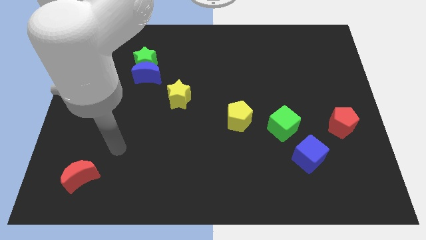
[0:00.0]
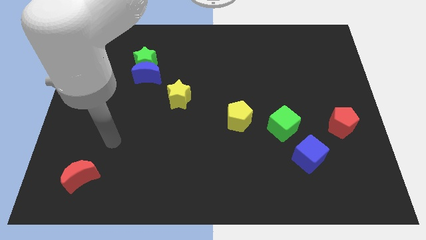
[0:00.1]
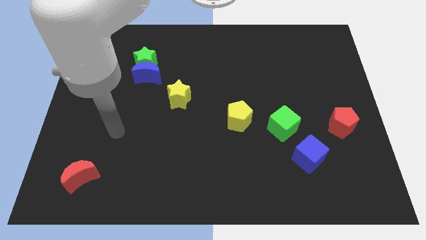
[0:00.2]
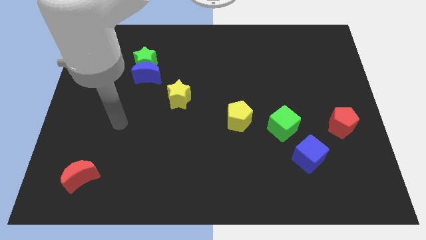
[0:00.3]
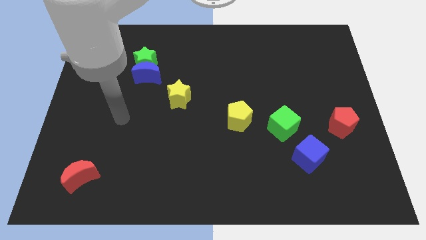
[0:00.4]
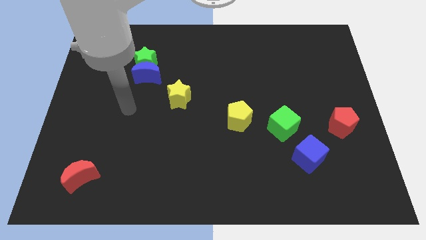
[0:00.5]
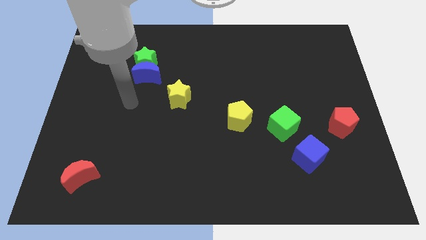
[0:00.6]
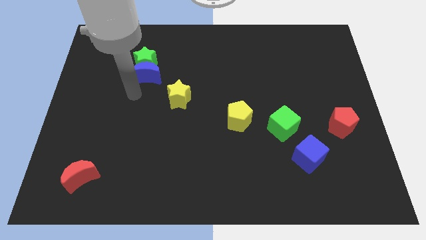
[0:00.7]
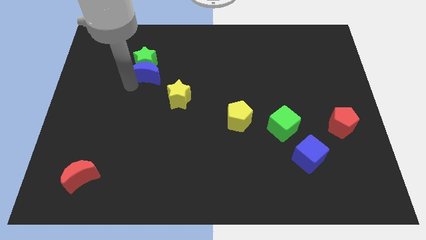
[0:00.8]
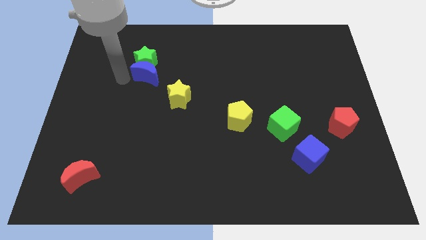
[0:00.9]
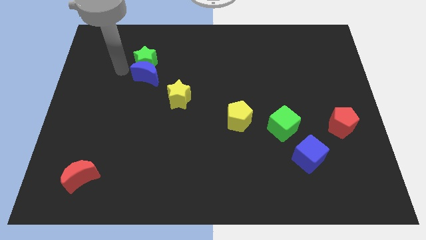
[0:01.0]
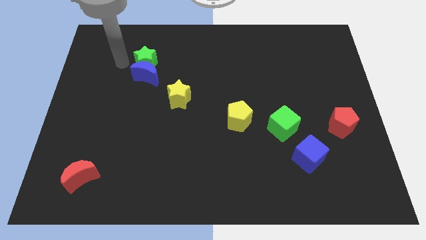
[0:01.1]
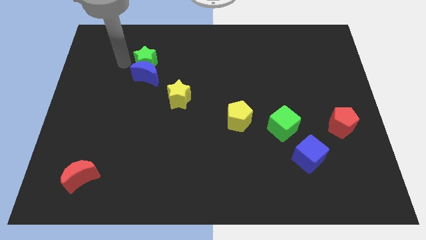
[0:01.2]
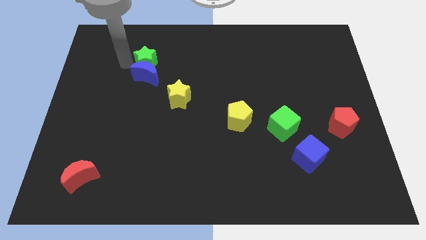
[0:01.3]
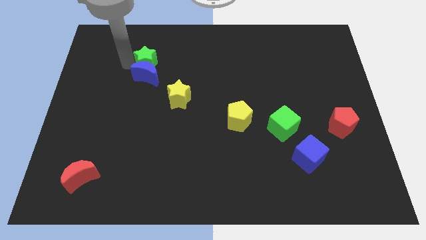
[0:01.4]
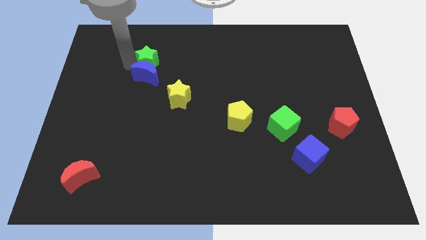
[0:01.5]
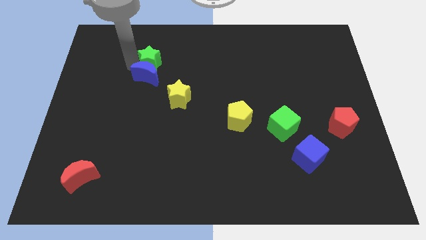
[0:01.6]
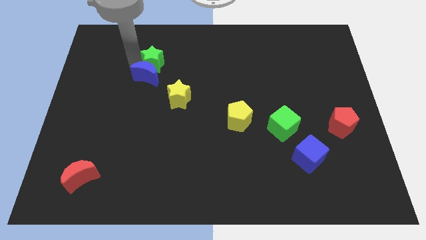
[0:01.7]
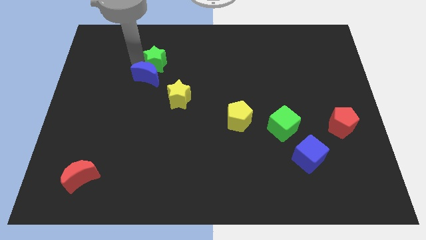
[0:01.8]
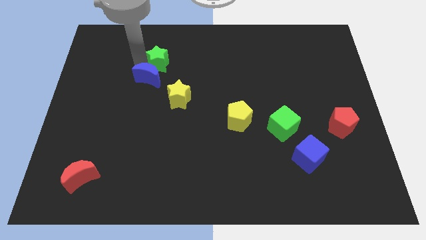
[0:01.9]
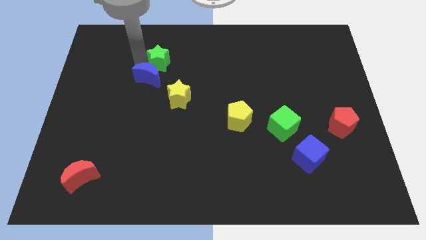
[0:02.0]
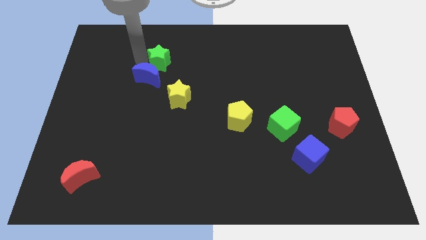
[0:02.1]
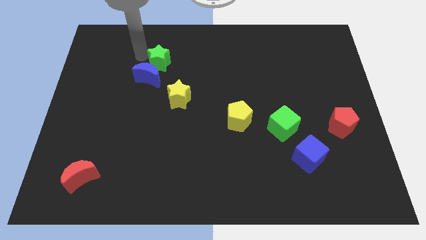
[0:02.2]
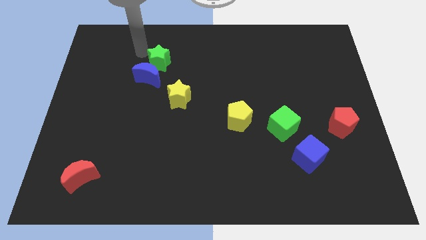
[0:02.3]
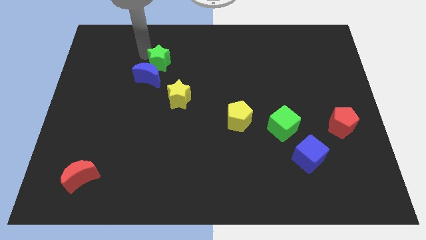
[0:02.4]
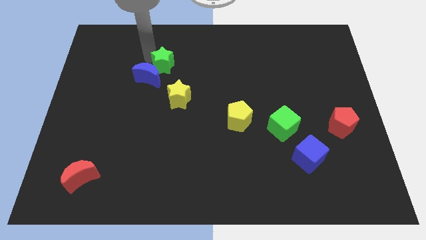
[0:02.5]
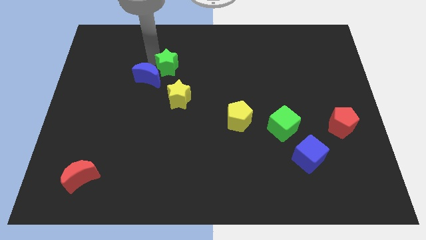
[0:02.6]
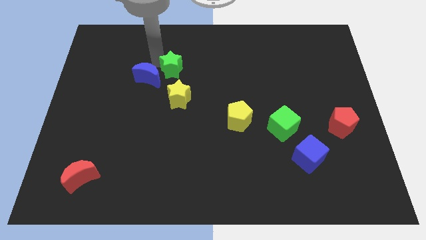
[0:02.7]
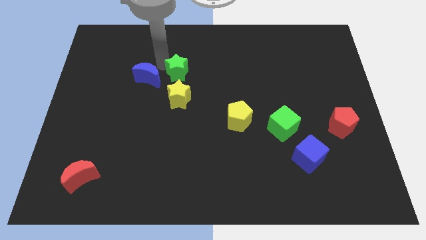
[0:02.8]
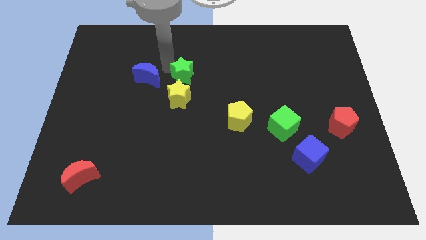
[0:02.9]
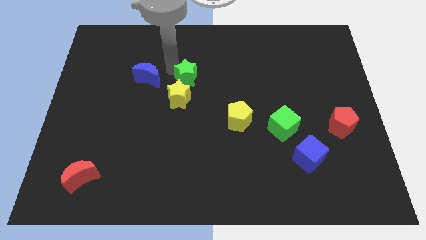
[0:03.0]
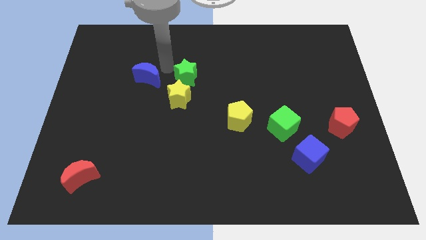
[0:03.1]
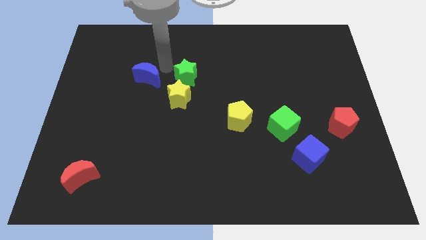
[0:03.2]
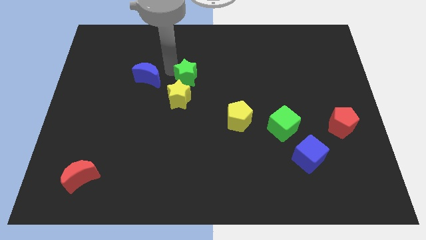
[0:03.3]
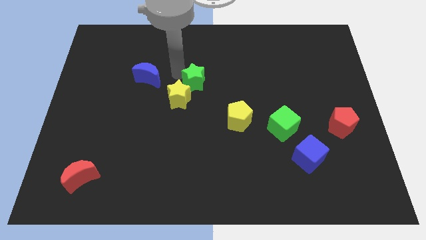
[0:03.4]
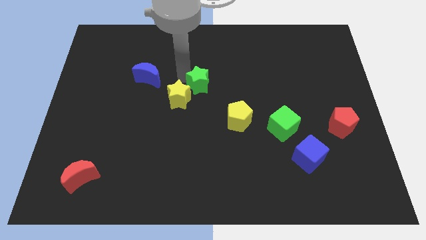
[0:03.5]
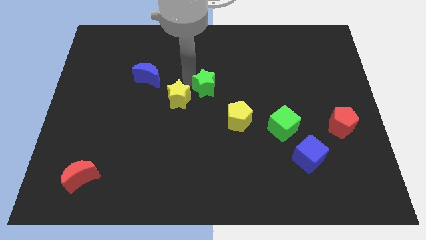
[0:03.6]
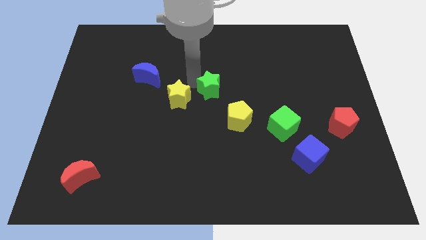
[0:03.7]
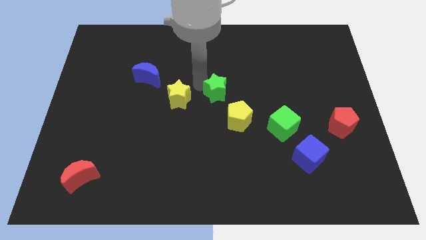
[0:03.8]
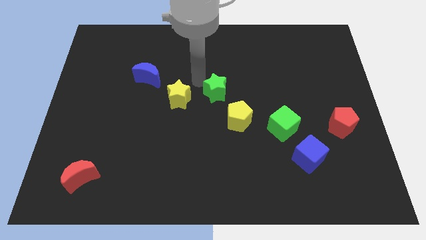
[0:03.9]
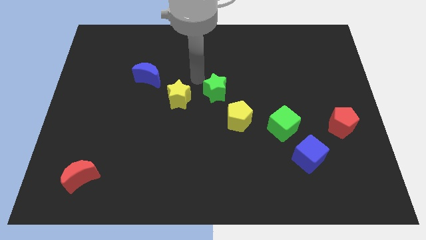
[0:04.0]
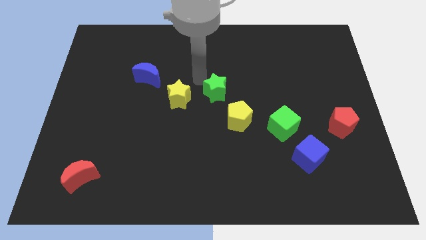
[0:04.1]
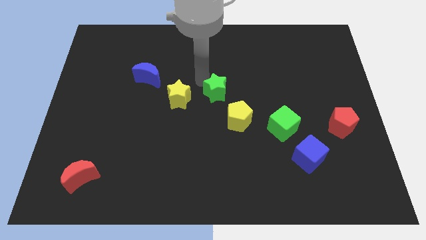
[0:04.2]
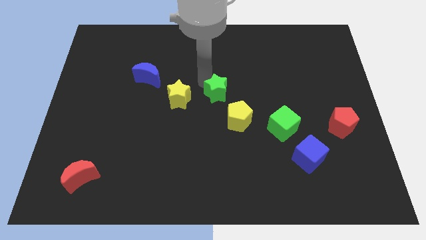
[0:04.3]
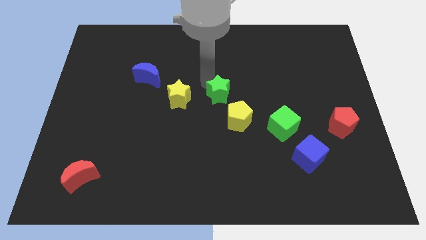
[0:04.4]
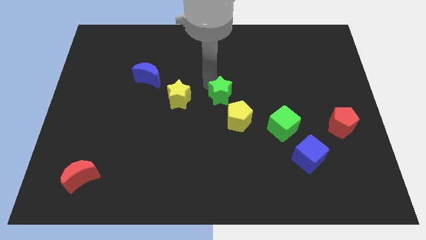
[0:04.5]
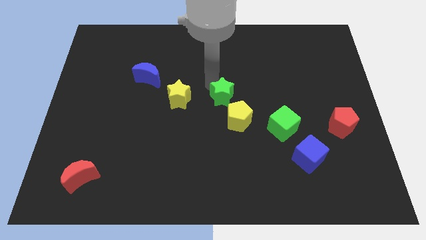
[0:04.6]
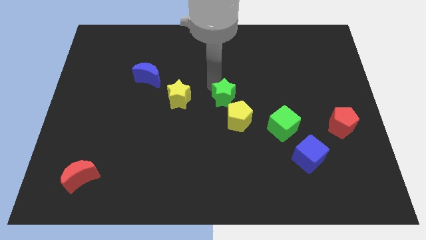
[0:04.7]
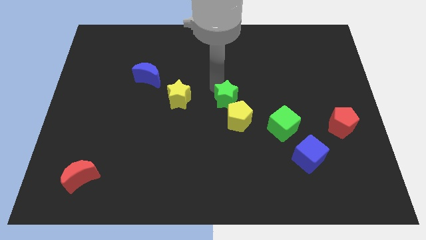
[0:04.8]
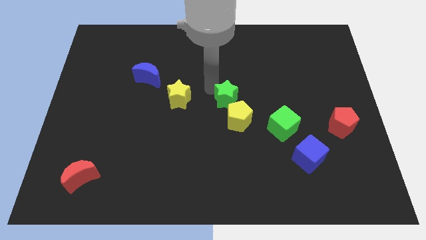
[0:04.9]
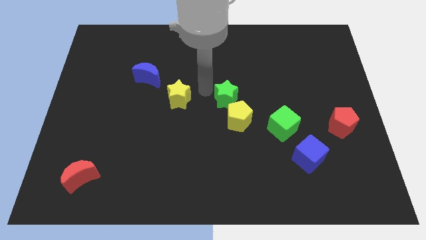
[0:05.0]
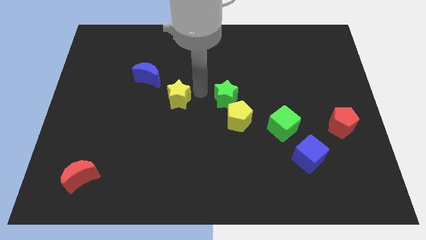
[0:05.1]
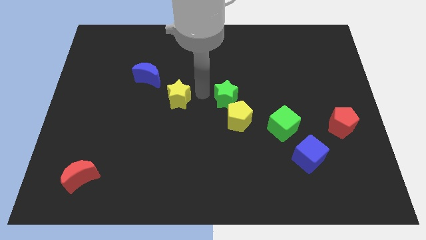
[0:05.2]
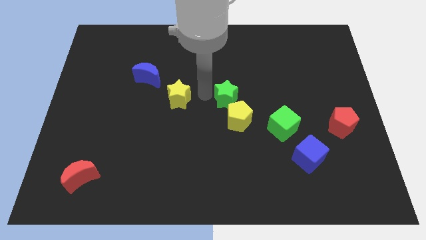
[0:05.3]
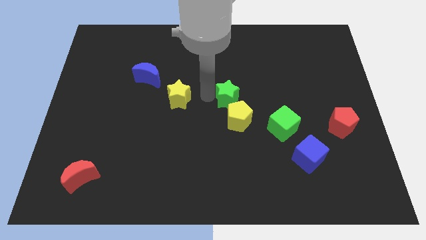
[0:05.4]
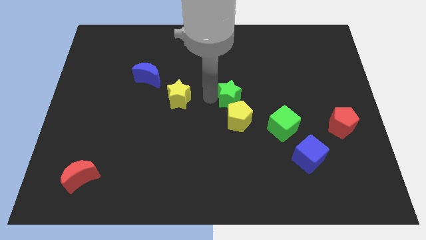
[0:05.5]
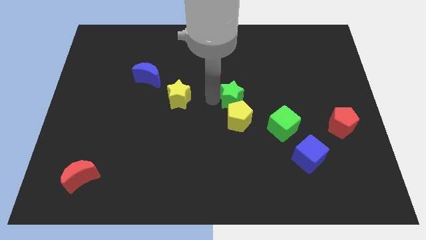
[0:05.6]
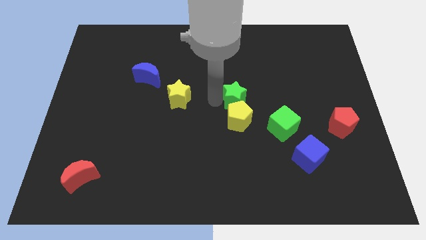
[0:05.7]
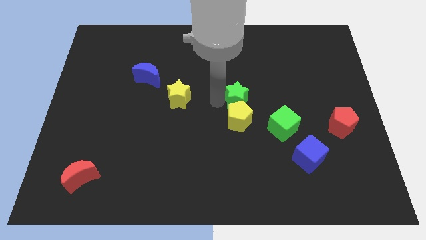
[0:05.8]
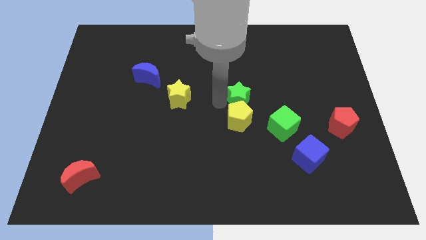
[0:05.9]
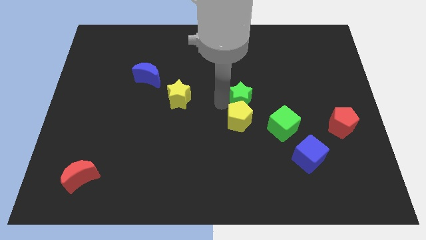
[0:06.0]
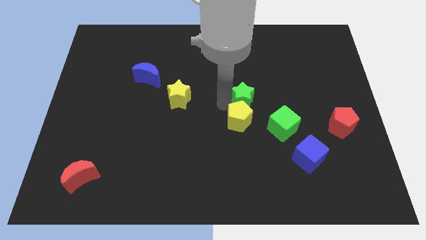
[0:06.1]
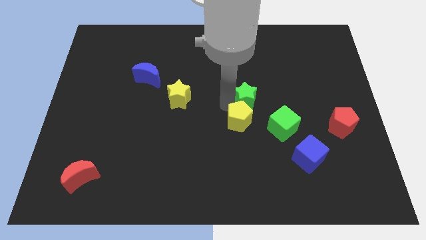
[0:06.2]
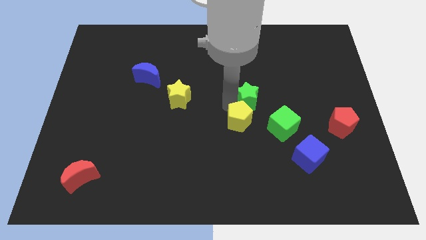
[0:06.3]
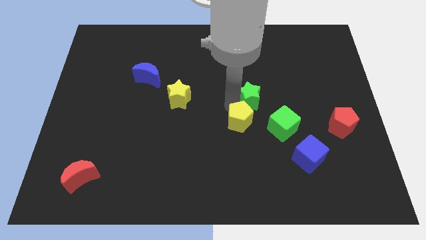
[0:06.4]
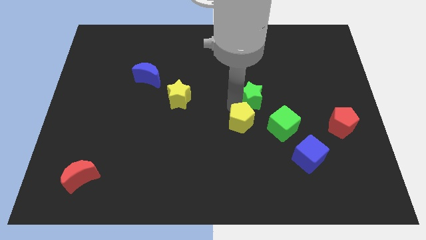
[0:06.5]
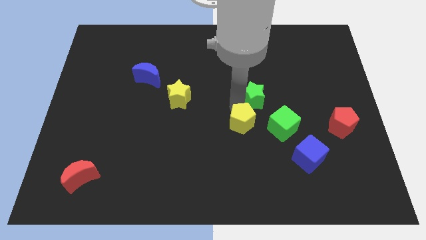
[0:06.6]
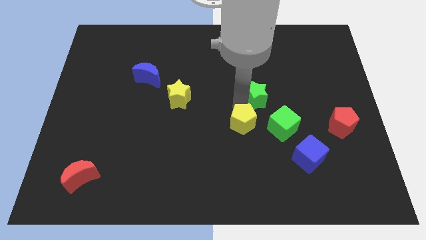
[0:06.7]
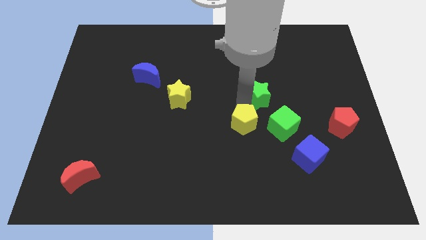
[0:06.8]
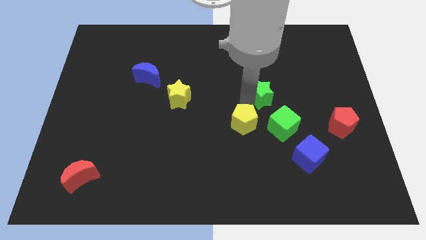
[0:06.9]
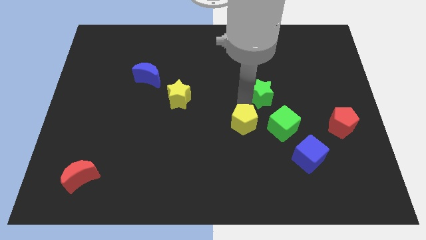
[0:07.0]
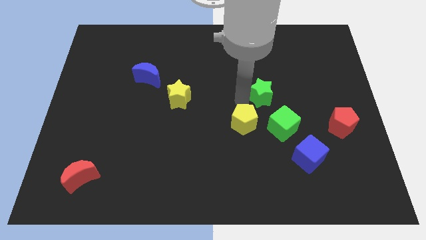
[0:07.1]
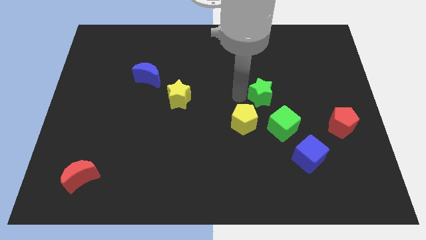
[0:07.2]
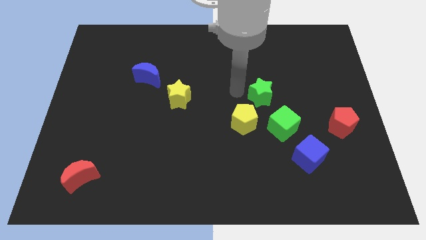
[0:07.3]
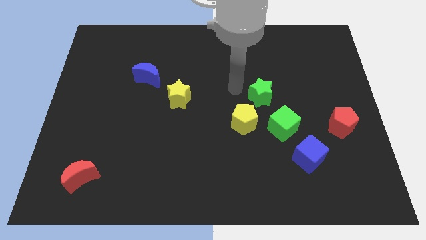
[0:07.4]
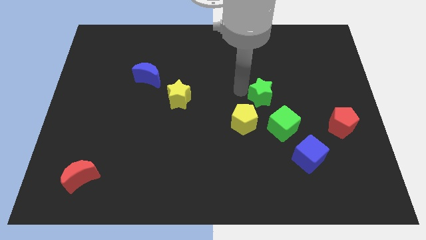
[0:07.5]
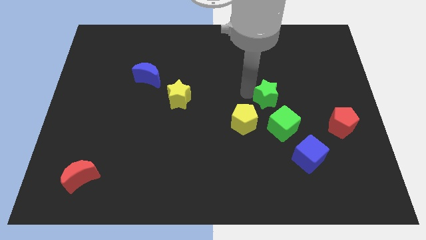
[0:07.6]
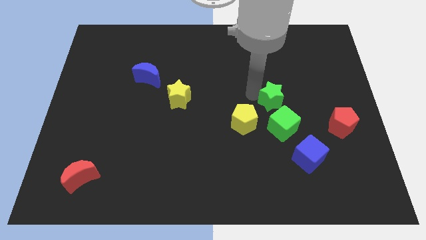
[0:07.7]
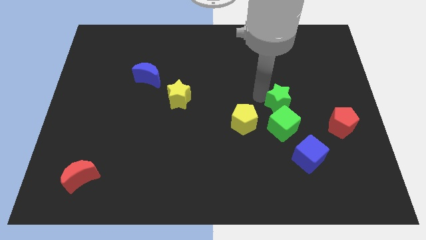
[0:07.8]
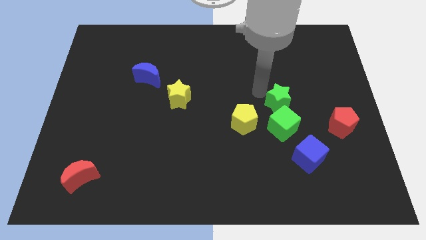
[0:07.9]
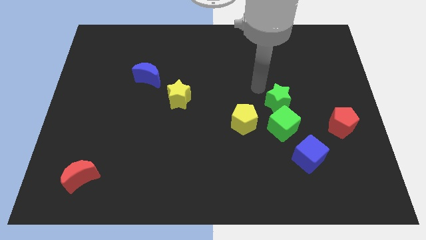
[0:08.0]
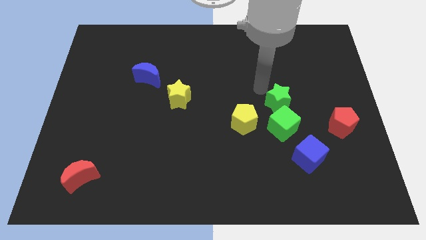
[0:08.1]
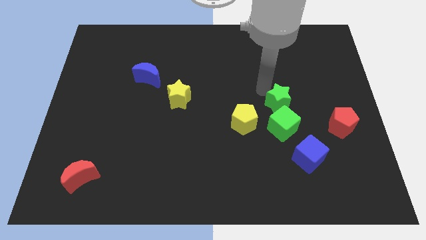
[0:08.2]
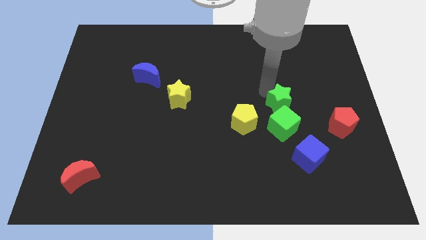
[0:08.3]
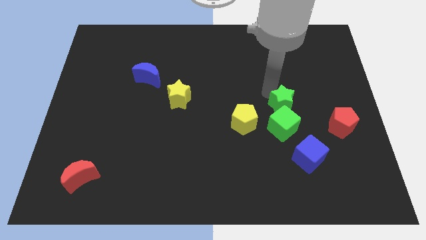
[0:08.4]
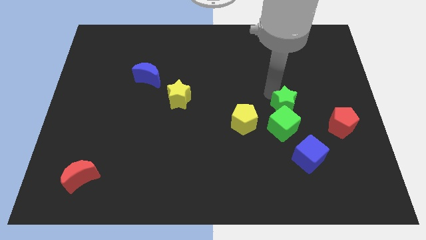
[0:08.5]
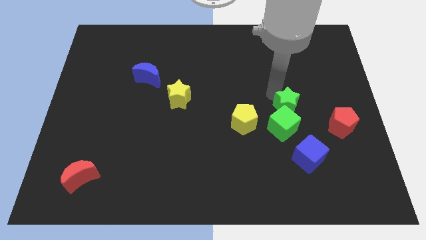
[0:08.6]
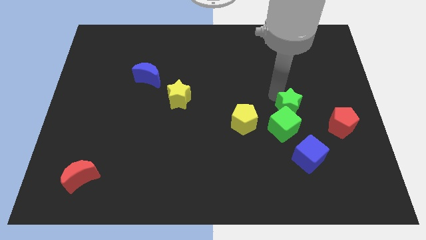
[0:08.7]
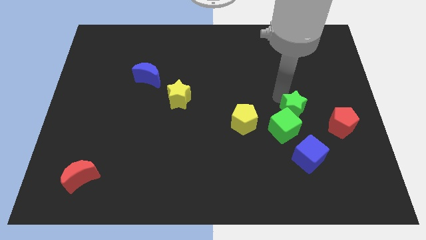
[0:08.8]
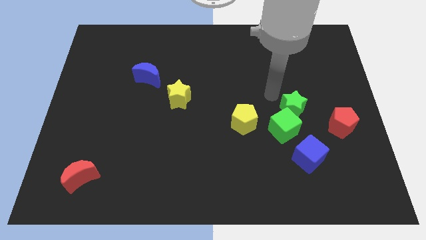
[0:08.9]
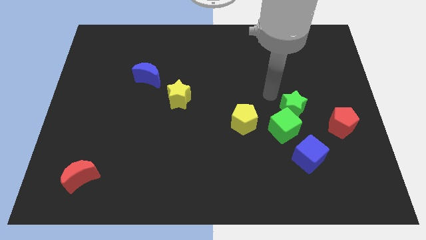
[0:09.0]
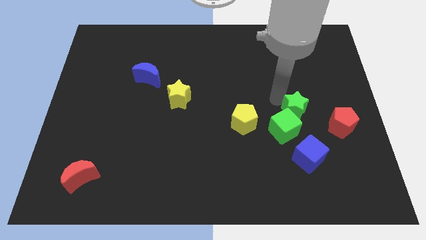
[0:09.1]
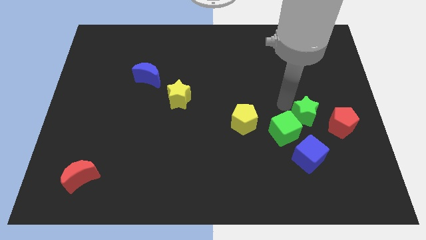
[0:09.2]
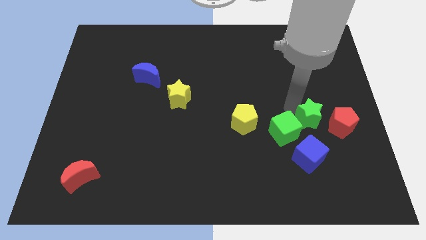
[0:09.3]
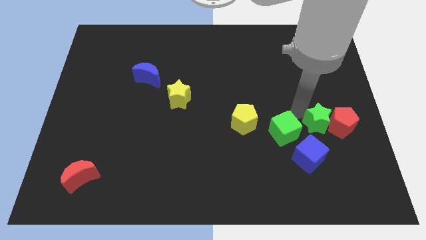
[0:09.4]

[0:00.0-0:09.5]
put the green star diagonally up and to the right of the blue cube
